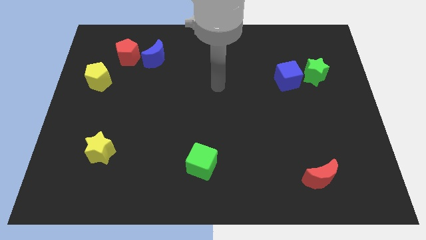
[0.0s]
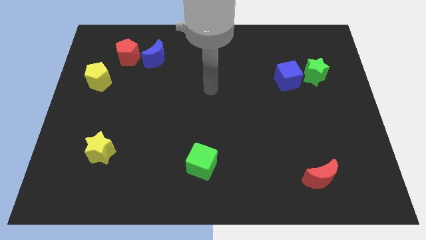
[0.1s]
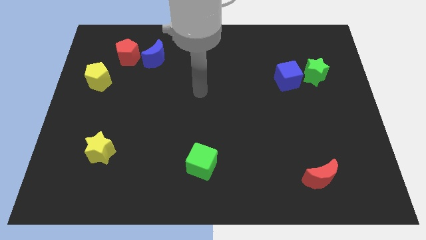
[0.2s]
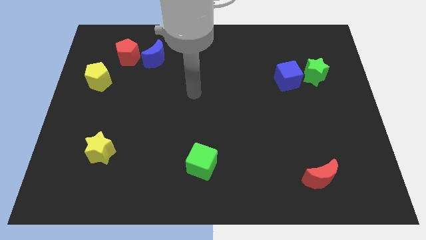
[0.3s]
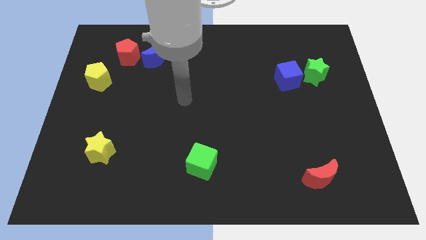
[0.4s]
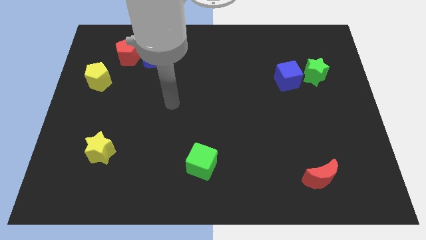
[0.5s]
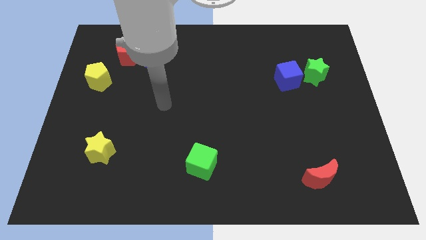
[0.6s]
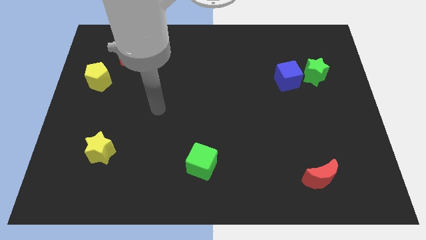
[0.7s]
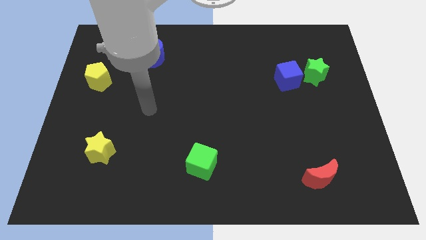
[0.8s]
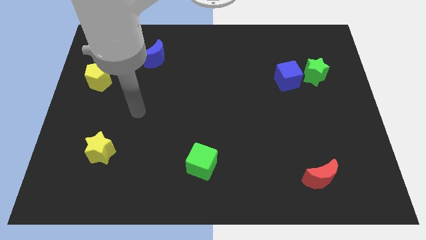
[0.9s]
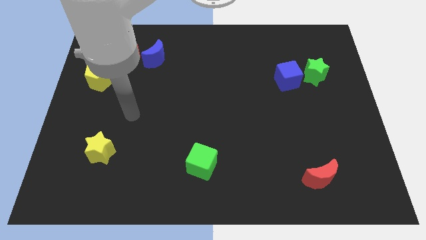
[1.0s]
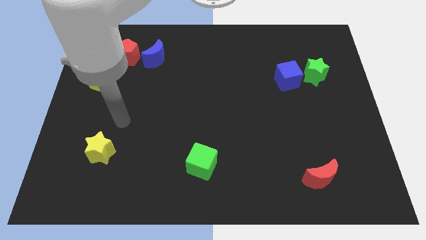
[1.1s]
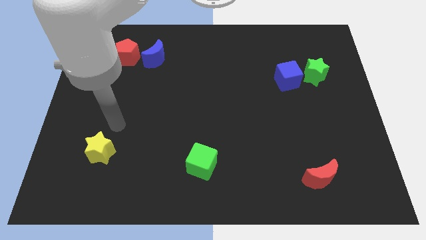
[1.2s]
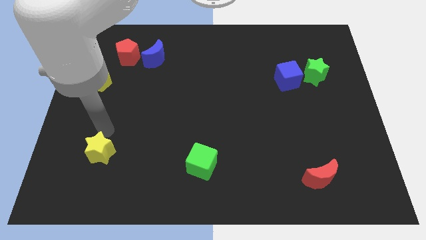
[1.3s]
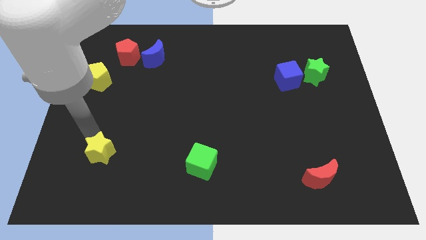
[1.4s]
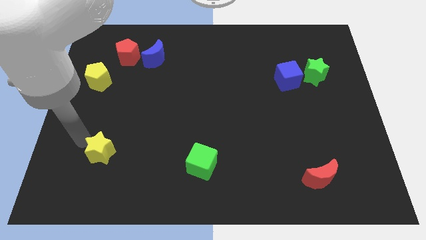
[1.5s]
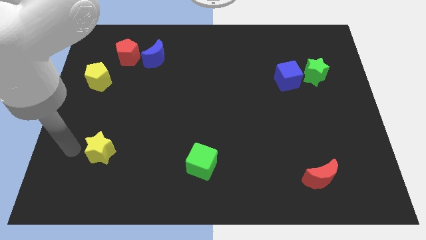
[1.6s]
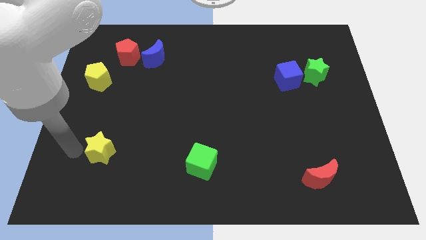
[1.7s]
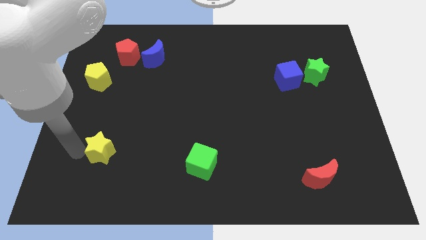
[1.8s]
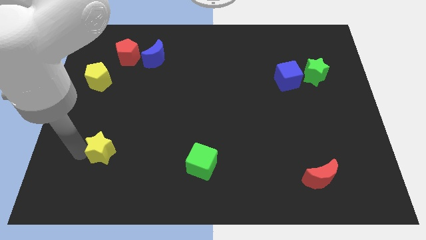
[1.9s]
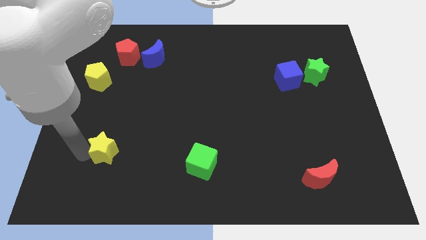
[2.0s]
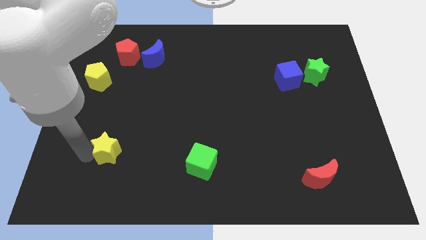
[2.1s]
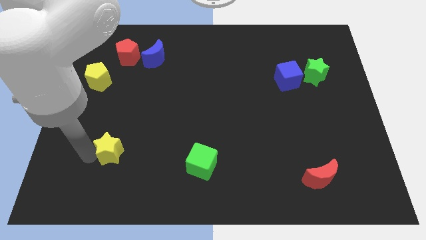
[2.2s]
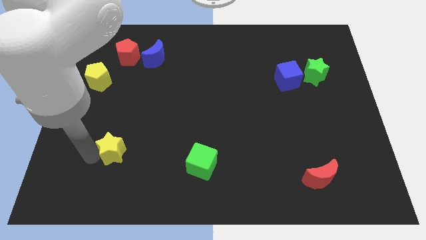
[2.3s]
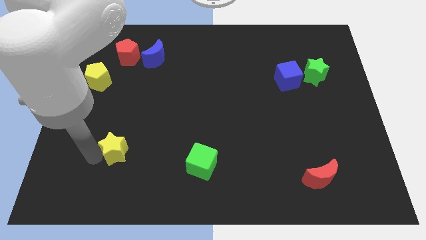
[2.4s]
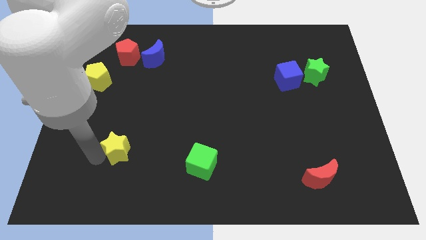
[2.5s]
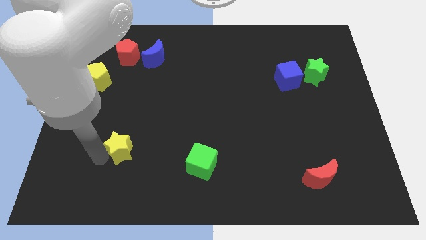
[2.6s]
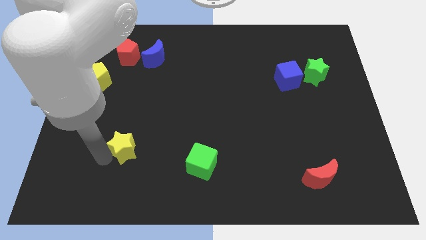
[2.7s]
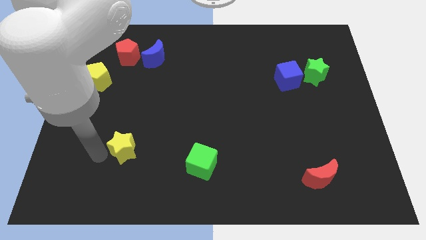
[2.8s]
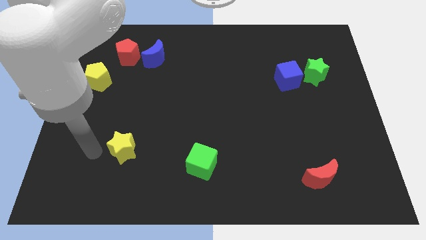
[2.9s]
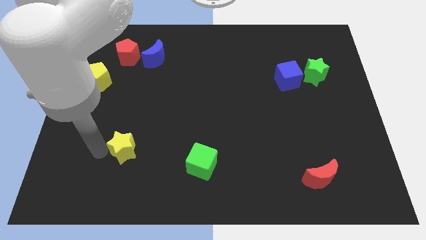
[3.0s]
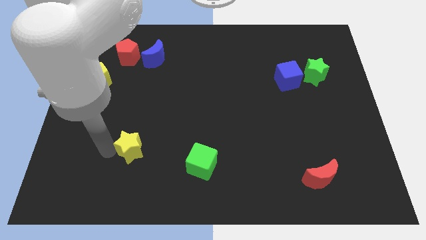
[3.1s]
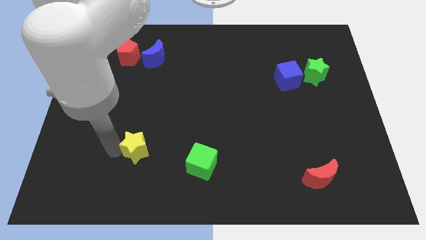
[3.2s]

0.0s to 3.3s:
slide the yellow star slightly right

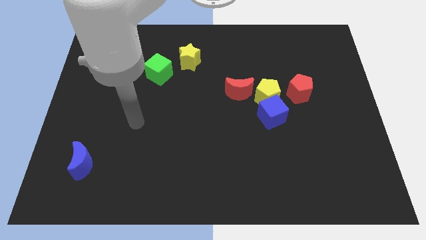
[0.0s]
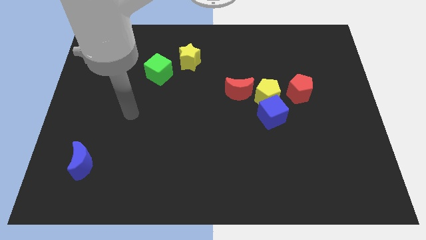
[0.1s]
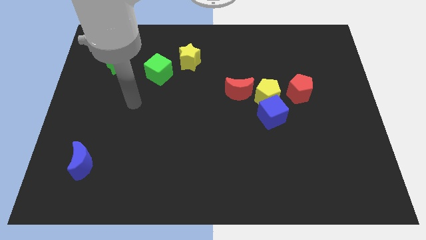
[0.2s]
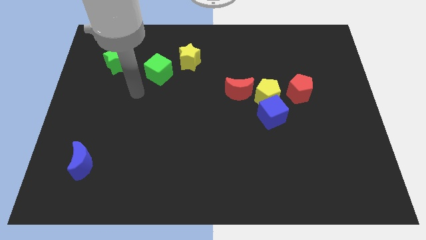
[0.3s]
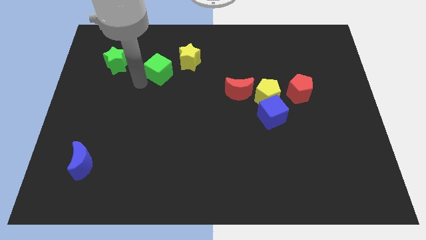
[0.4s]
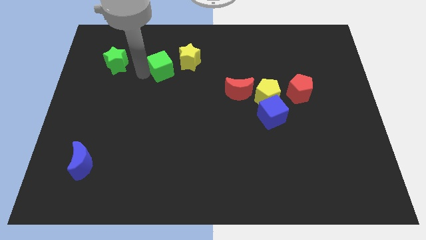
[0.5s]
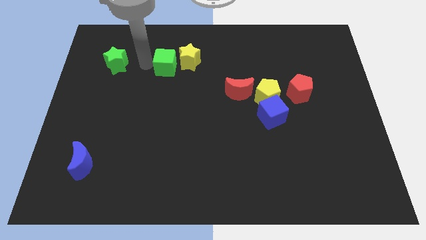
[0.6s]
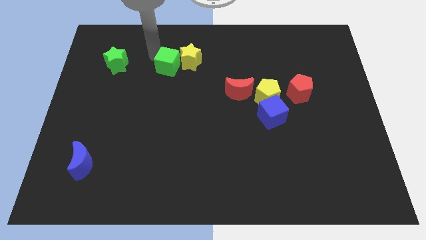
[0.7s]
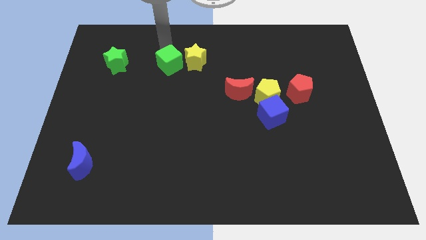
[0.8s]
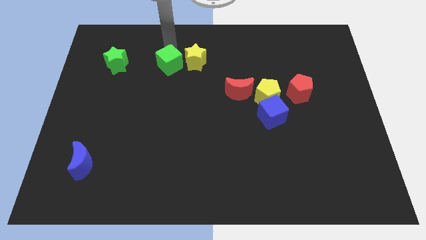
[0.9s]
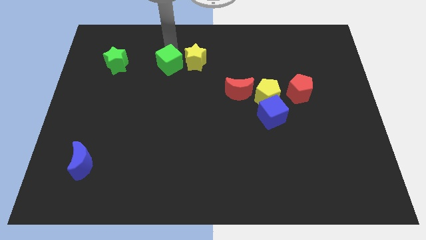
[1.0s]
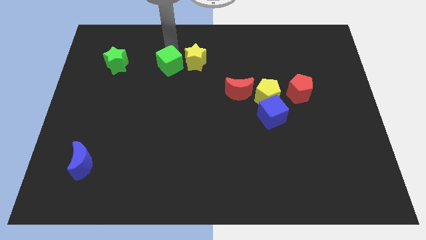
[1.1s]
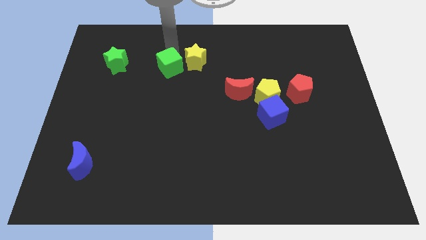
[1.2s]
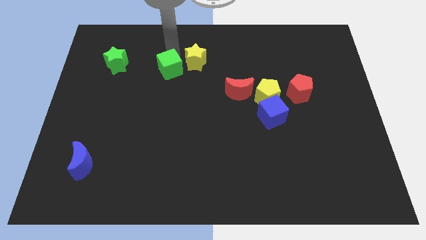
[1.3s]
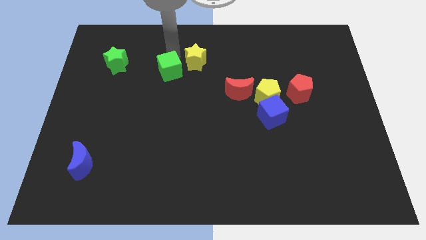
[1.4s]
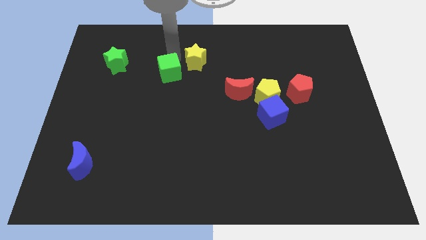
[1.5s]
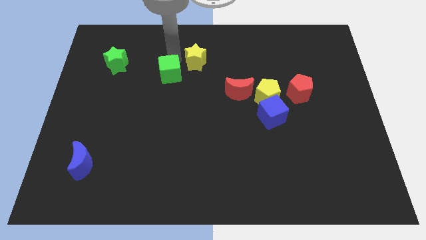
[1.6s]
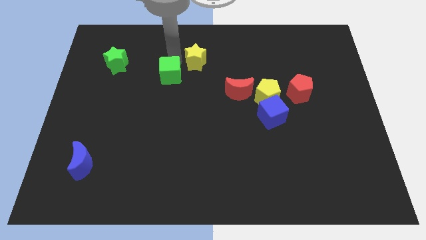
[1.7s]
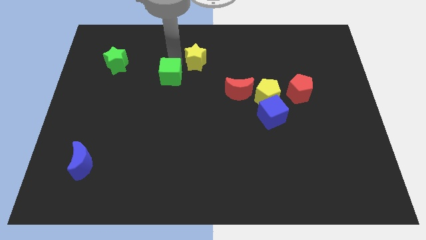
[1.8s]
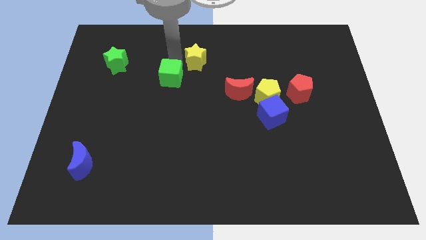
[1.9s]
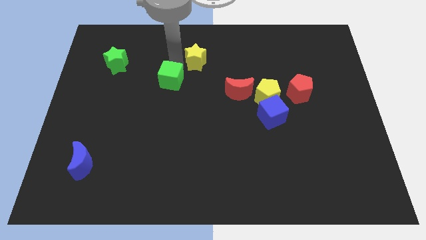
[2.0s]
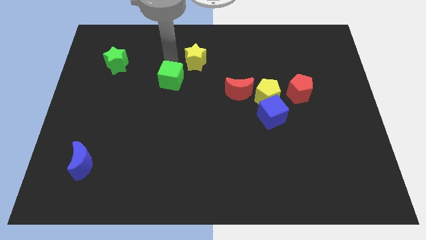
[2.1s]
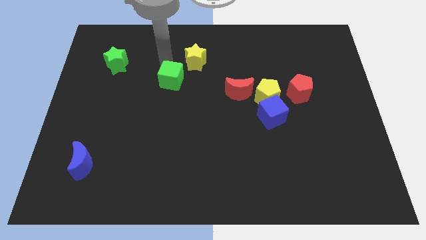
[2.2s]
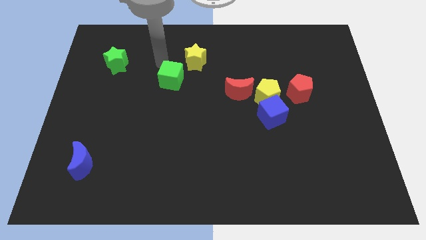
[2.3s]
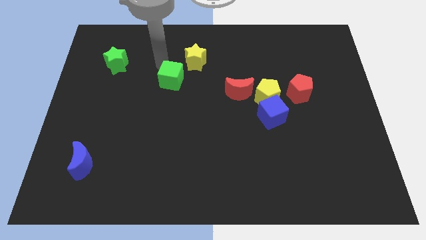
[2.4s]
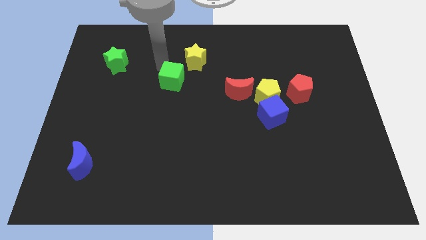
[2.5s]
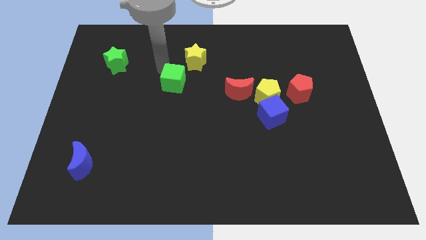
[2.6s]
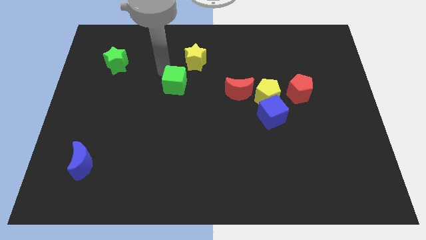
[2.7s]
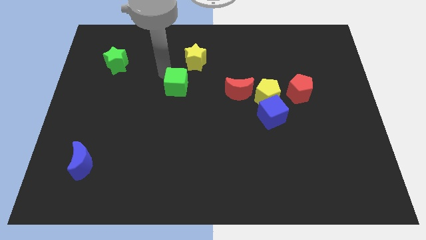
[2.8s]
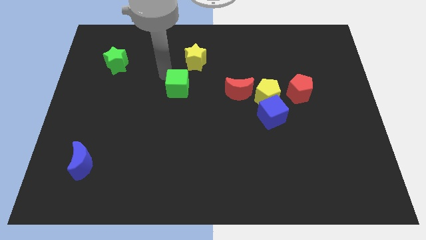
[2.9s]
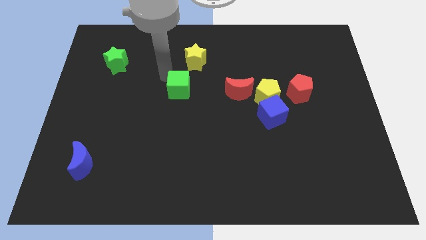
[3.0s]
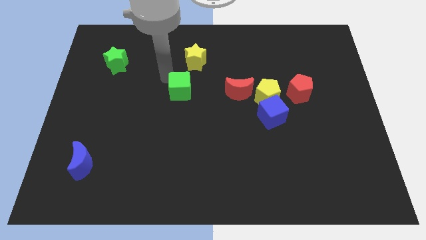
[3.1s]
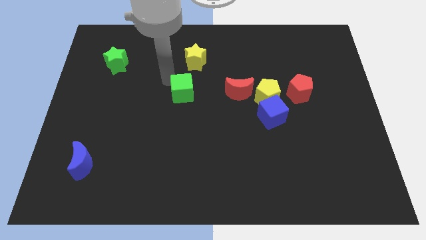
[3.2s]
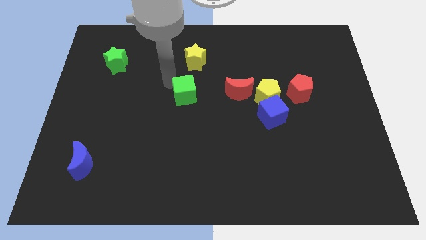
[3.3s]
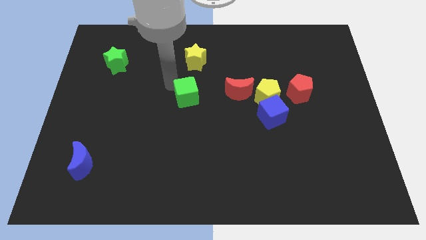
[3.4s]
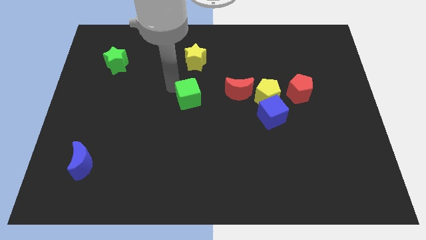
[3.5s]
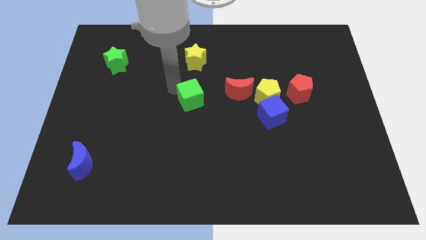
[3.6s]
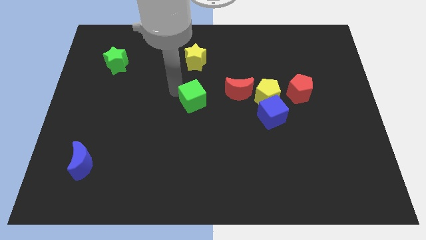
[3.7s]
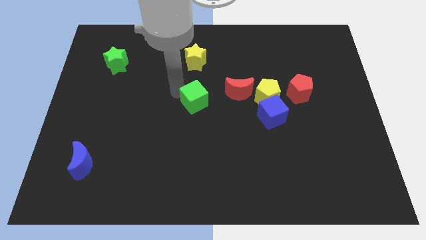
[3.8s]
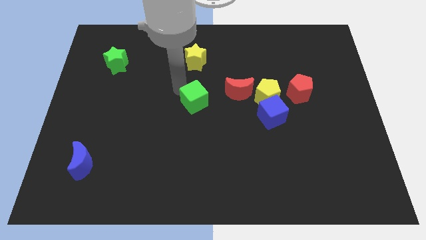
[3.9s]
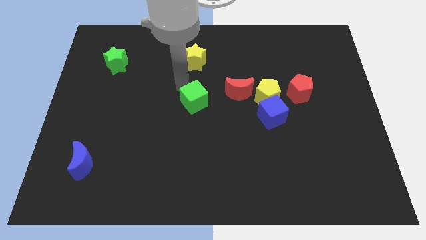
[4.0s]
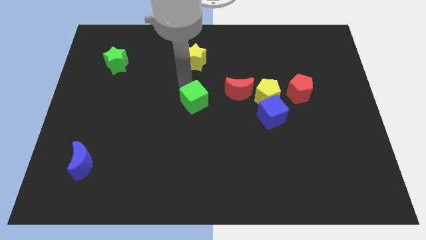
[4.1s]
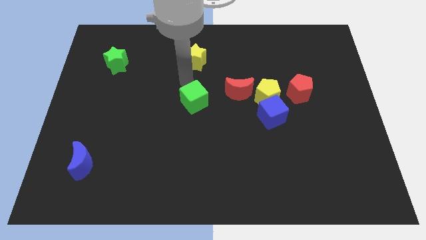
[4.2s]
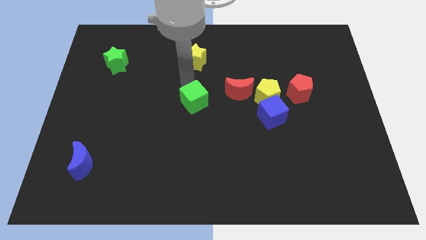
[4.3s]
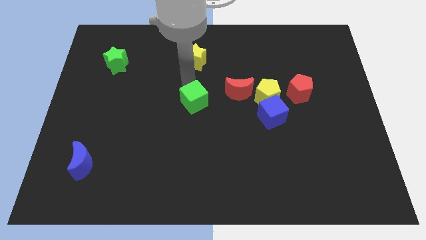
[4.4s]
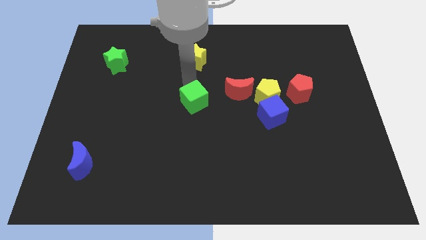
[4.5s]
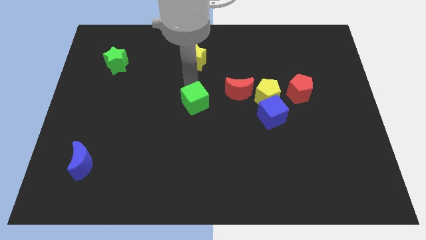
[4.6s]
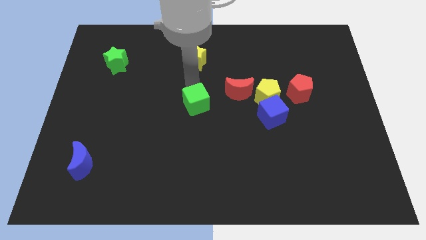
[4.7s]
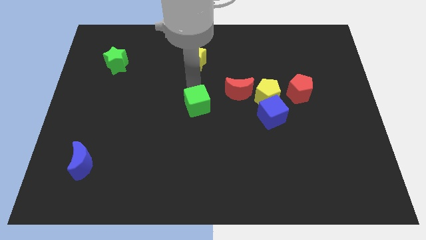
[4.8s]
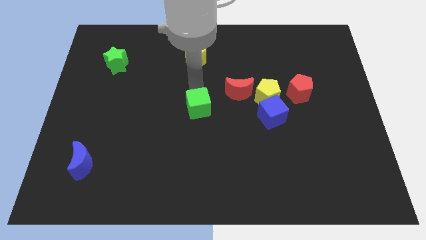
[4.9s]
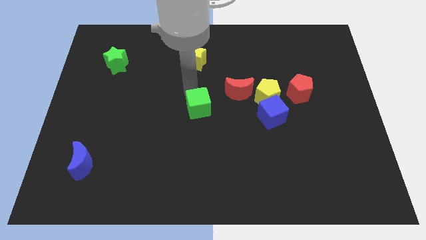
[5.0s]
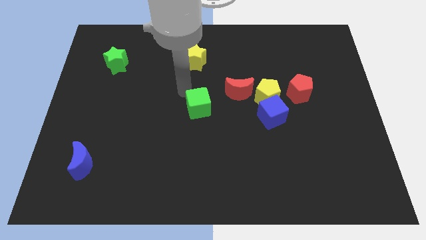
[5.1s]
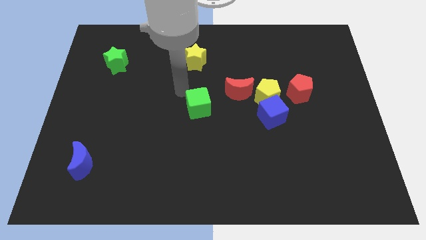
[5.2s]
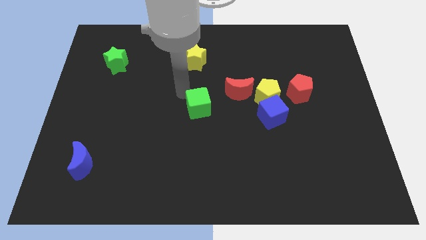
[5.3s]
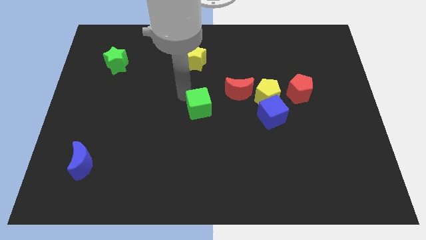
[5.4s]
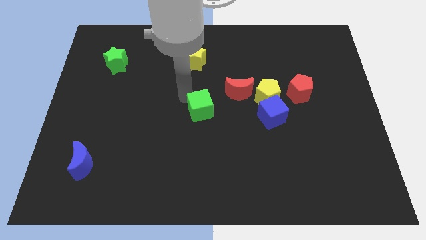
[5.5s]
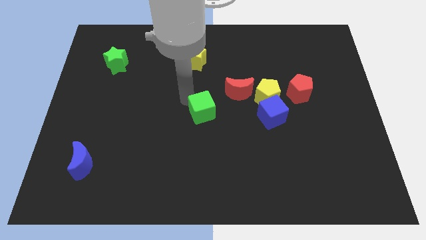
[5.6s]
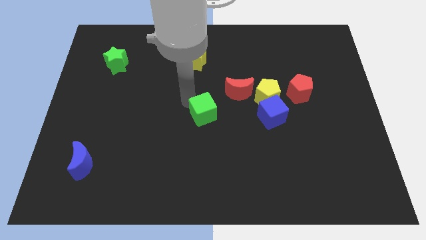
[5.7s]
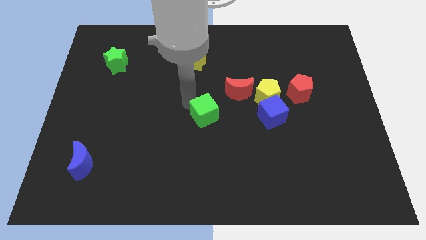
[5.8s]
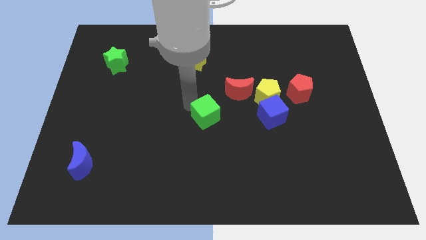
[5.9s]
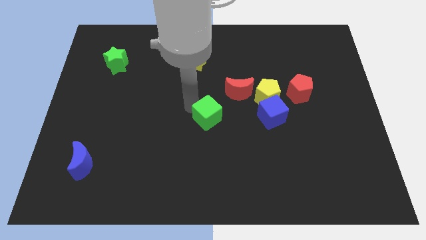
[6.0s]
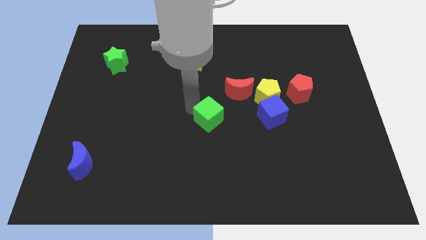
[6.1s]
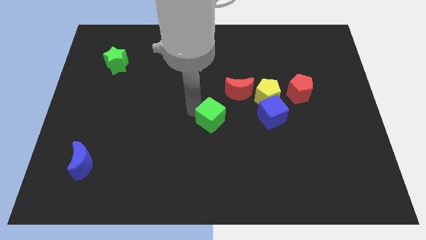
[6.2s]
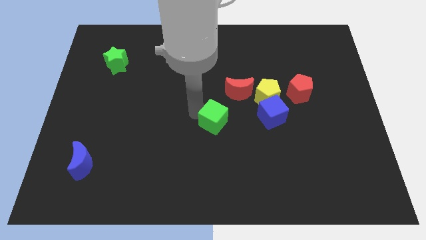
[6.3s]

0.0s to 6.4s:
slide the green cube downwards and to the right
